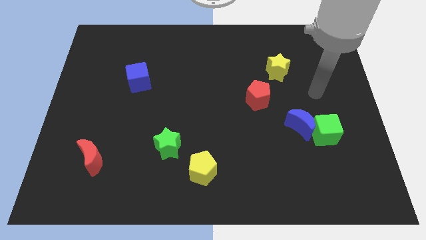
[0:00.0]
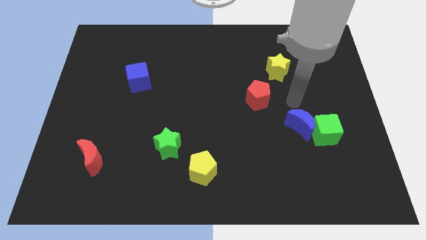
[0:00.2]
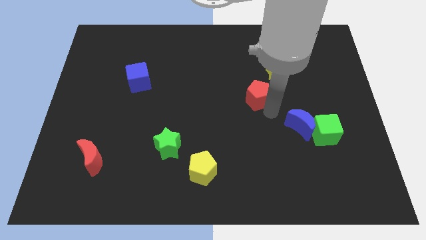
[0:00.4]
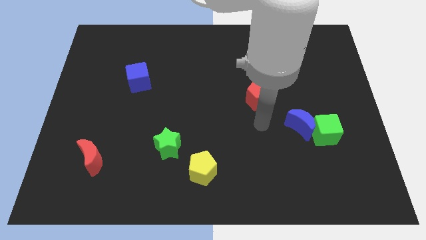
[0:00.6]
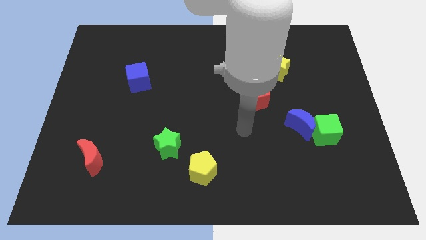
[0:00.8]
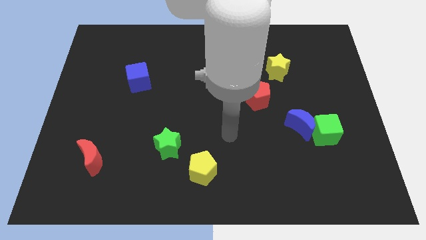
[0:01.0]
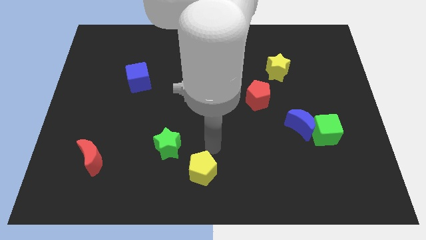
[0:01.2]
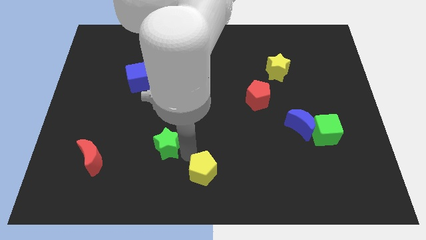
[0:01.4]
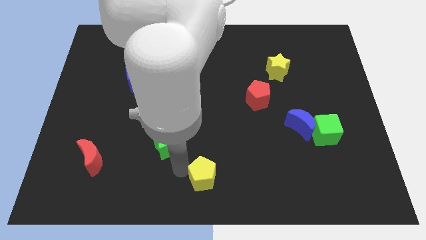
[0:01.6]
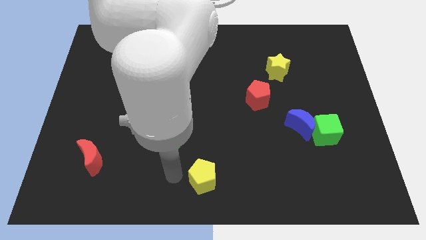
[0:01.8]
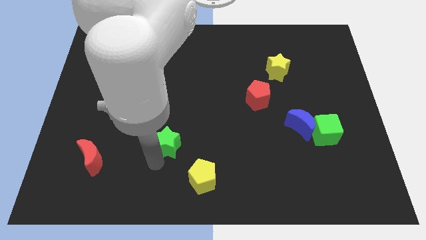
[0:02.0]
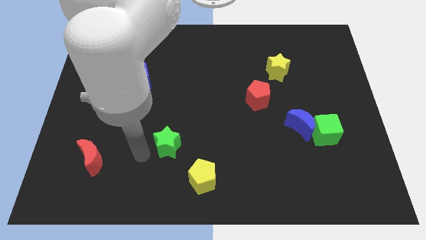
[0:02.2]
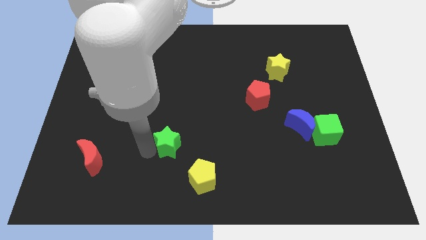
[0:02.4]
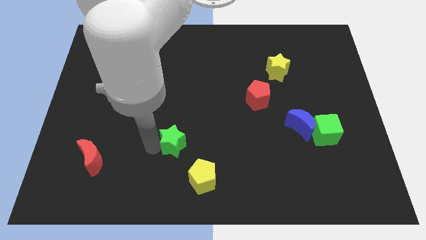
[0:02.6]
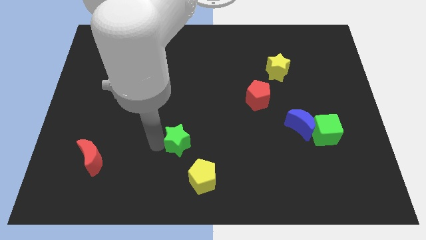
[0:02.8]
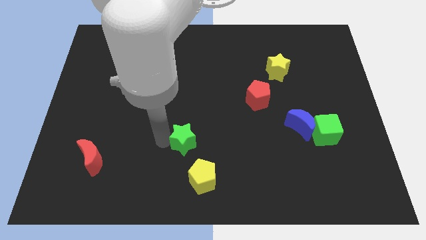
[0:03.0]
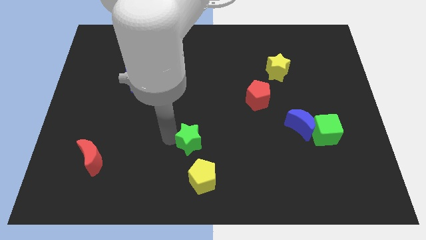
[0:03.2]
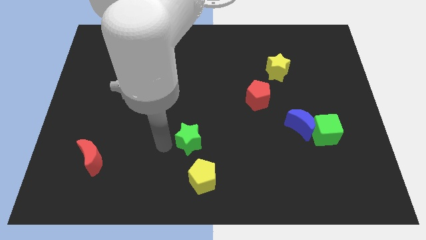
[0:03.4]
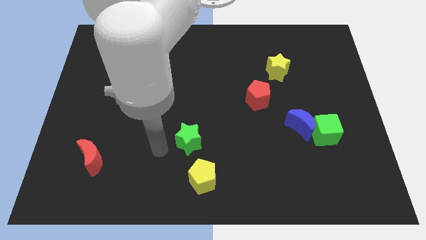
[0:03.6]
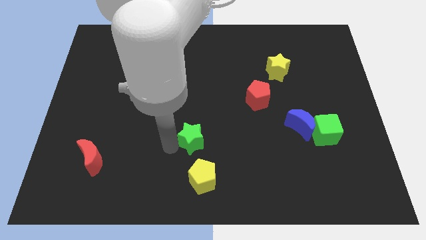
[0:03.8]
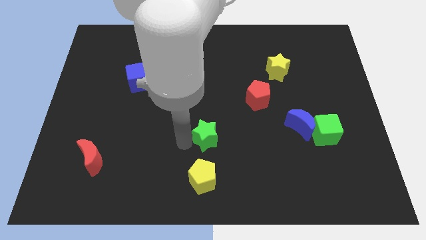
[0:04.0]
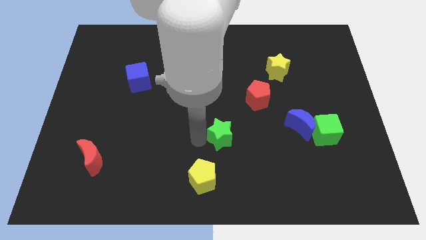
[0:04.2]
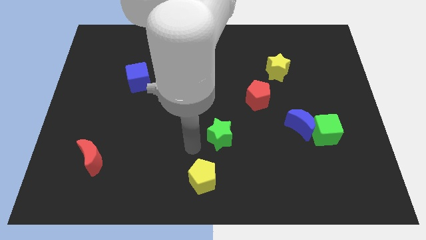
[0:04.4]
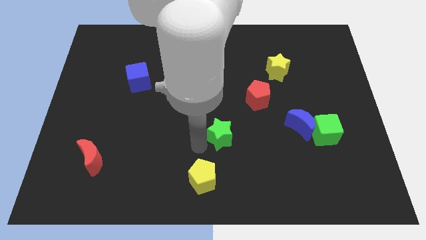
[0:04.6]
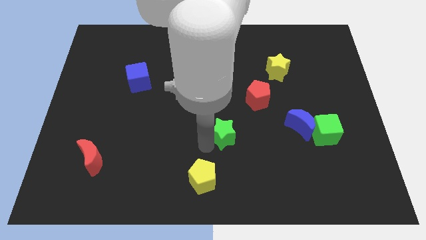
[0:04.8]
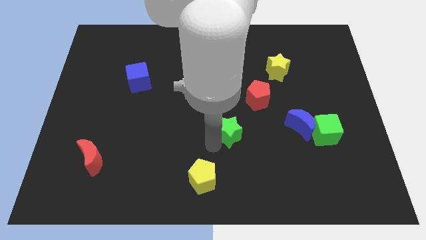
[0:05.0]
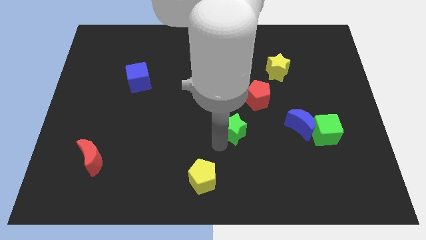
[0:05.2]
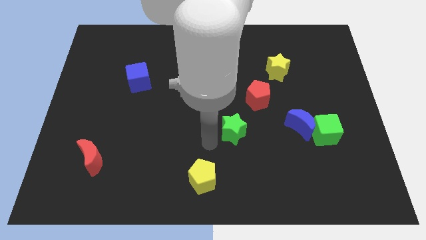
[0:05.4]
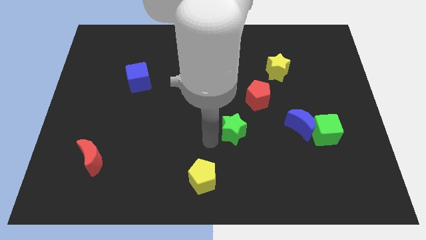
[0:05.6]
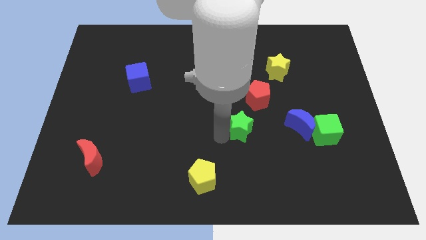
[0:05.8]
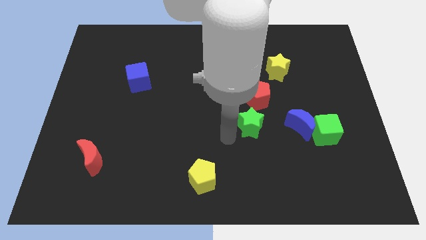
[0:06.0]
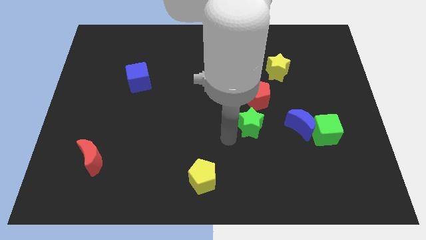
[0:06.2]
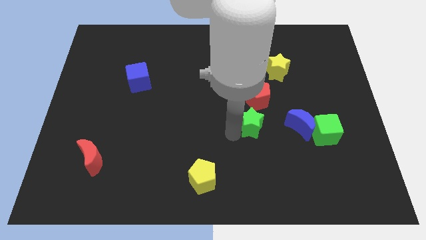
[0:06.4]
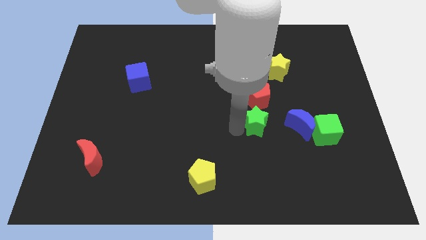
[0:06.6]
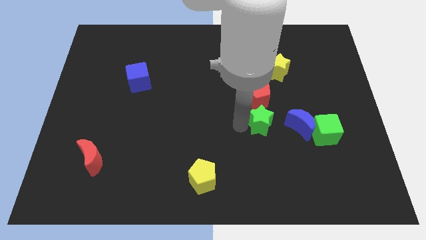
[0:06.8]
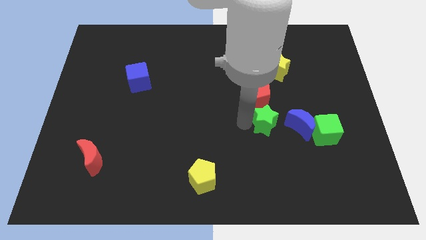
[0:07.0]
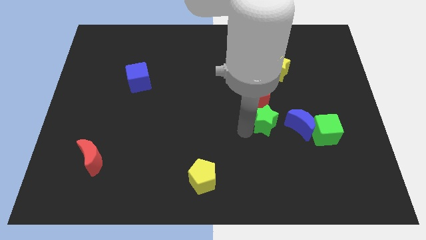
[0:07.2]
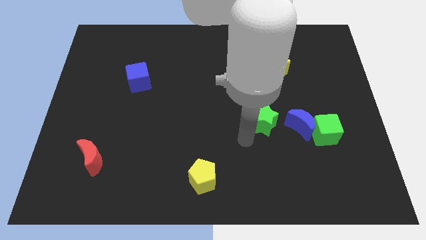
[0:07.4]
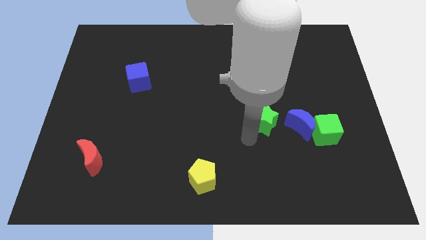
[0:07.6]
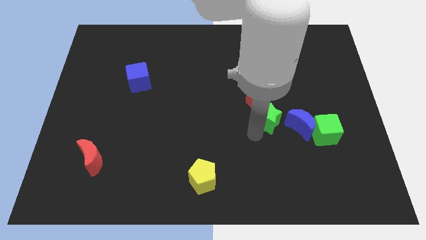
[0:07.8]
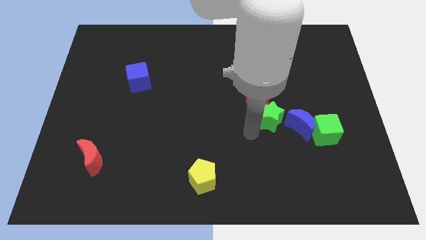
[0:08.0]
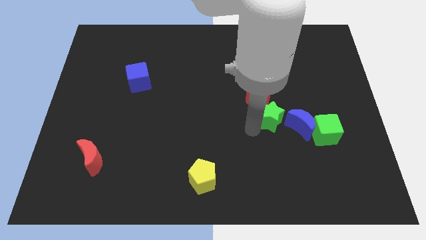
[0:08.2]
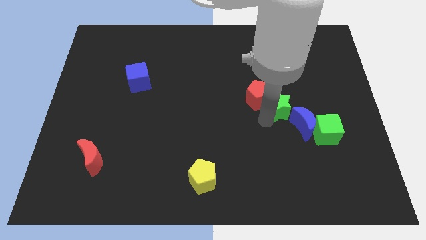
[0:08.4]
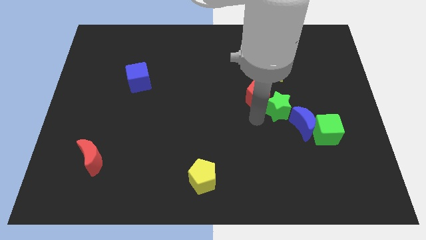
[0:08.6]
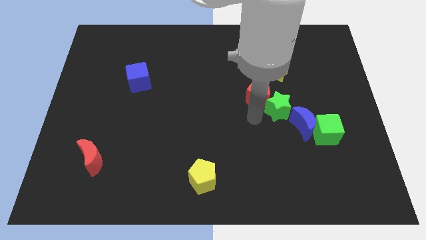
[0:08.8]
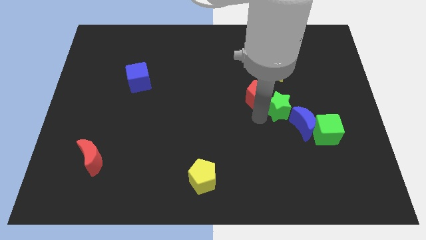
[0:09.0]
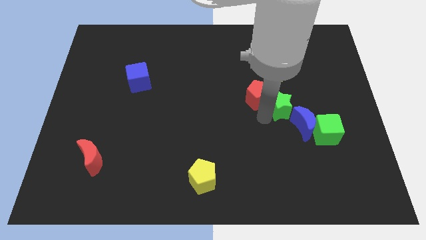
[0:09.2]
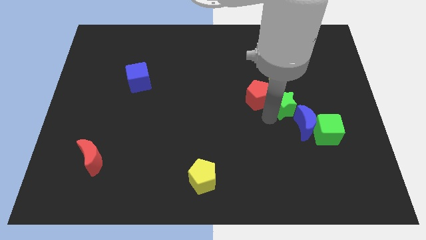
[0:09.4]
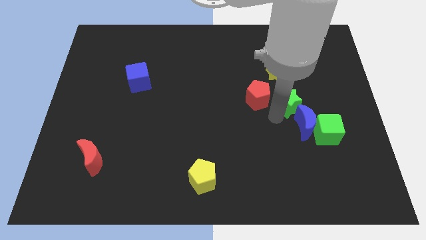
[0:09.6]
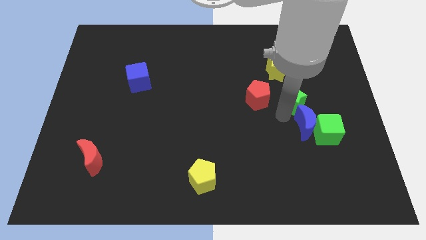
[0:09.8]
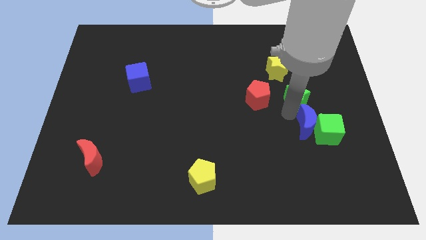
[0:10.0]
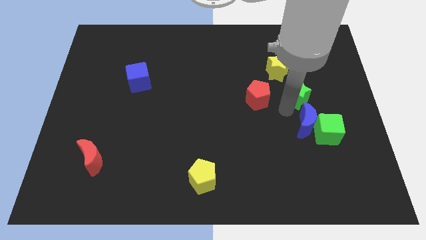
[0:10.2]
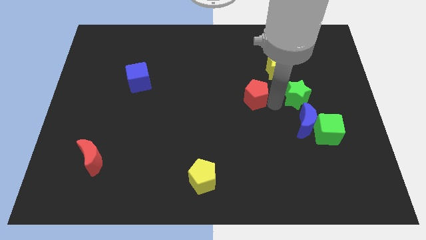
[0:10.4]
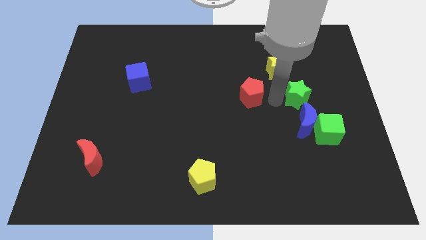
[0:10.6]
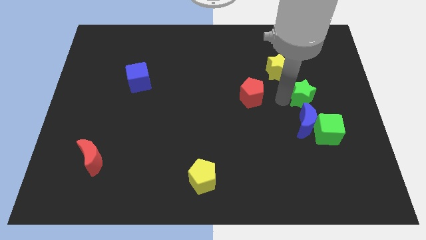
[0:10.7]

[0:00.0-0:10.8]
push the green star to the top side of the green cube

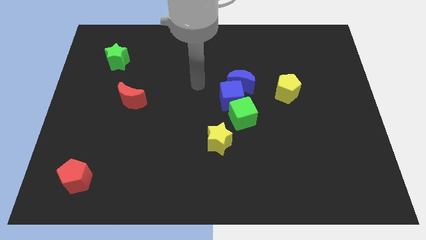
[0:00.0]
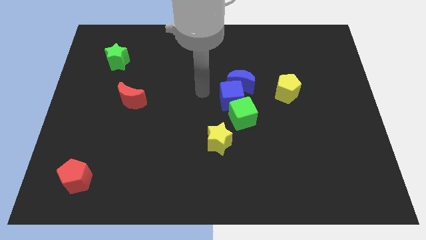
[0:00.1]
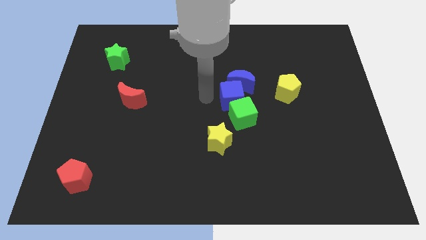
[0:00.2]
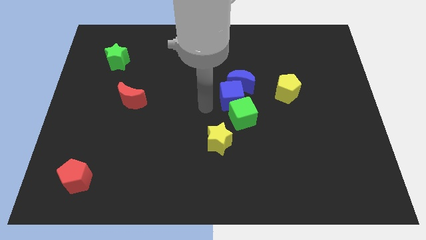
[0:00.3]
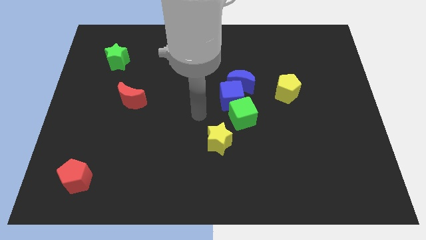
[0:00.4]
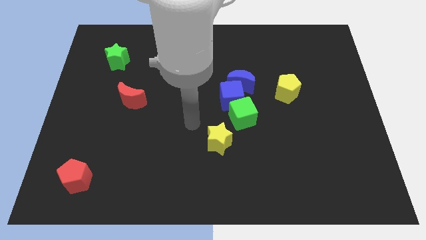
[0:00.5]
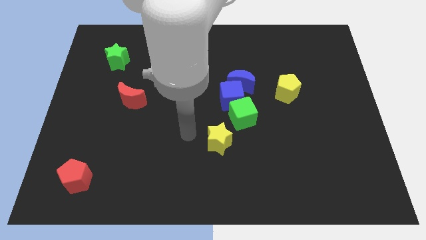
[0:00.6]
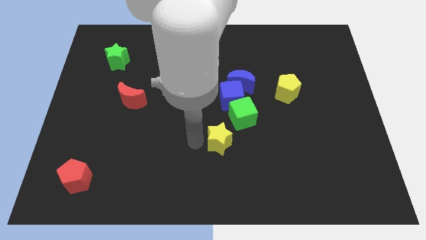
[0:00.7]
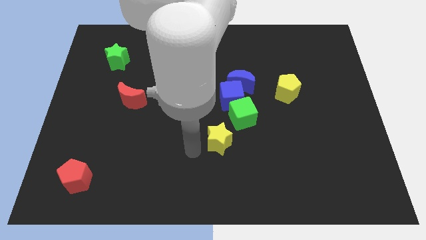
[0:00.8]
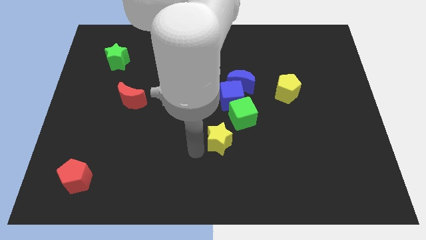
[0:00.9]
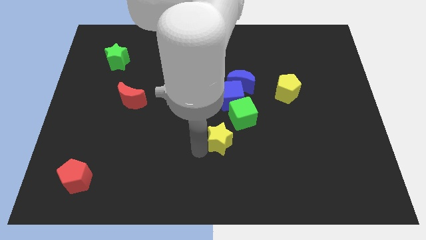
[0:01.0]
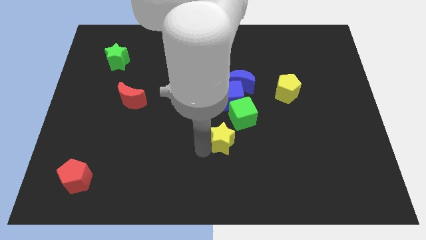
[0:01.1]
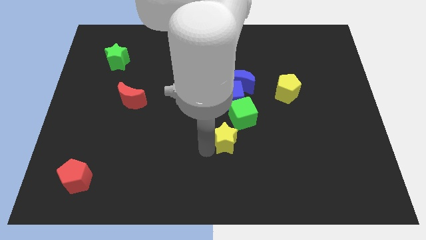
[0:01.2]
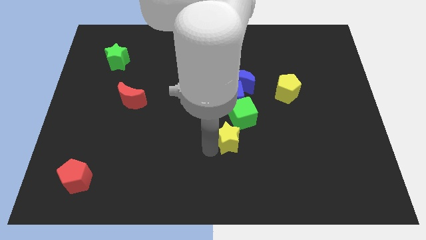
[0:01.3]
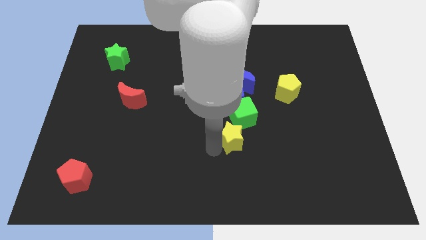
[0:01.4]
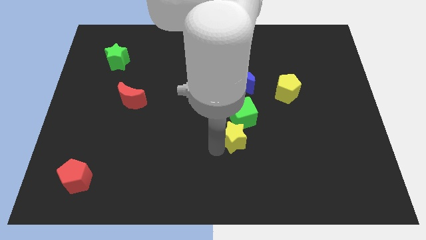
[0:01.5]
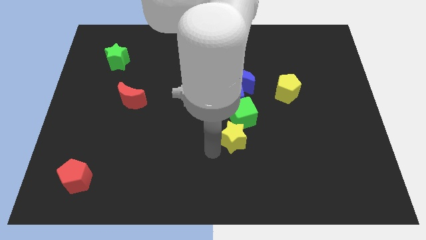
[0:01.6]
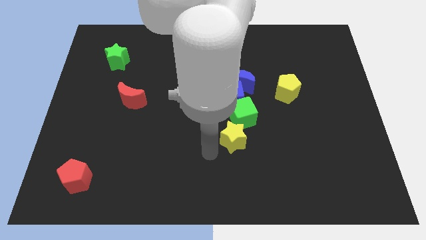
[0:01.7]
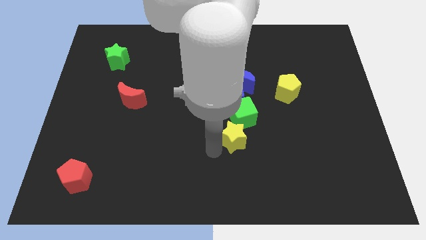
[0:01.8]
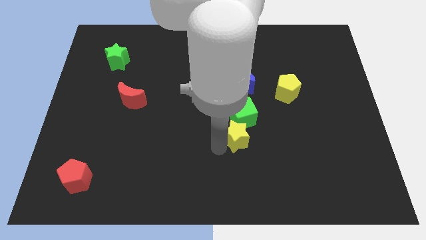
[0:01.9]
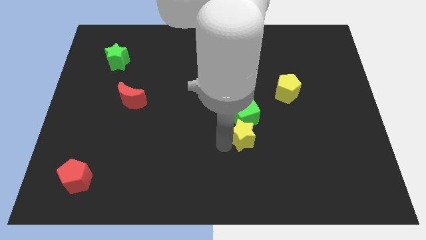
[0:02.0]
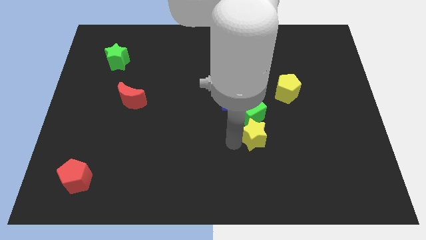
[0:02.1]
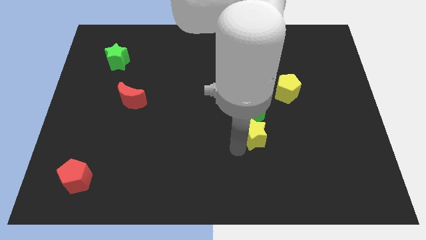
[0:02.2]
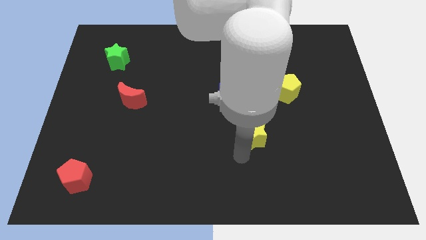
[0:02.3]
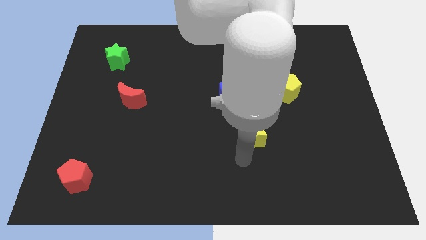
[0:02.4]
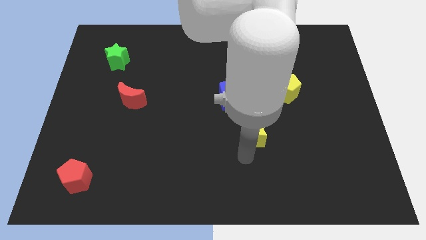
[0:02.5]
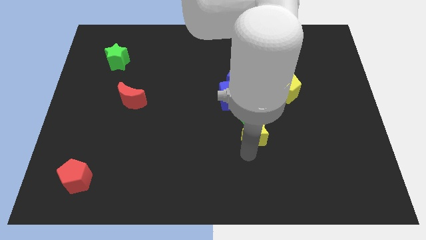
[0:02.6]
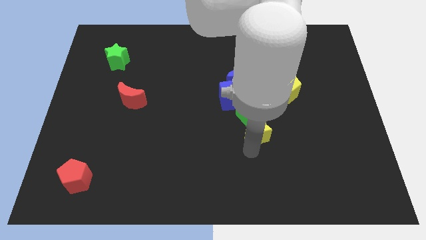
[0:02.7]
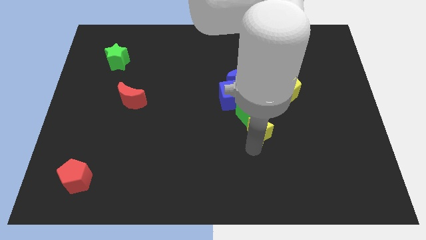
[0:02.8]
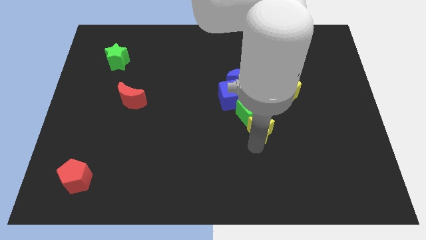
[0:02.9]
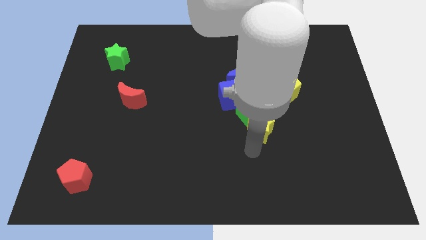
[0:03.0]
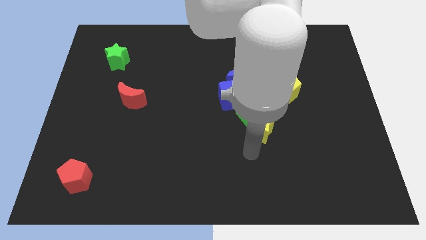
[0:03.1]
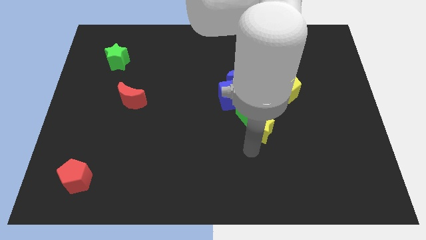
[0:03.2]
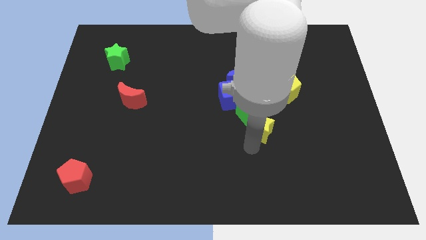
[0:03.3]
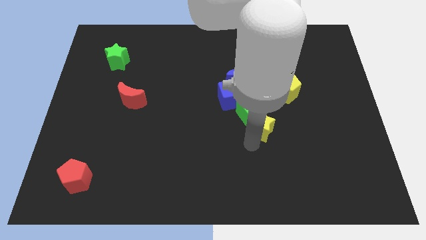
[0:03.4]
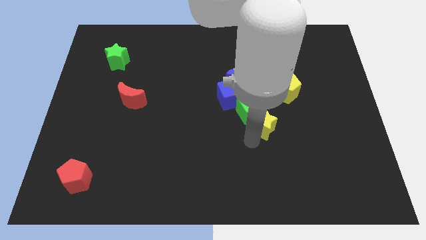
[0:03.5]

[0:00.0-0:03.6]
push the yellow star diagonally down and to the left of the yellow pentagon
